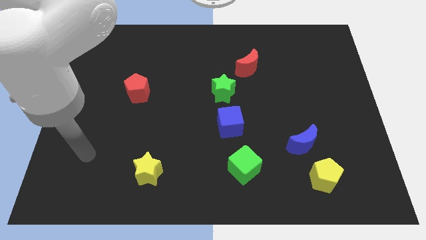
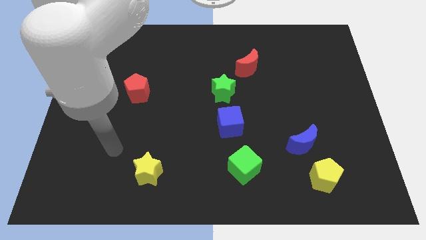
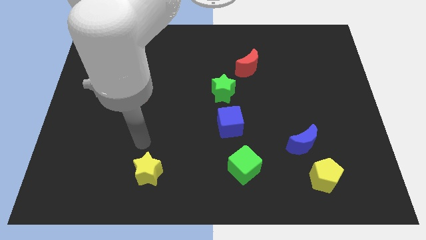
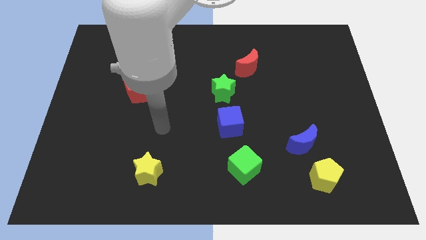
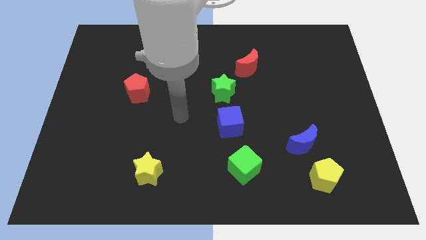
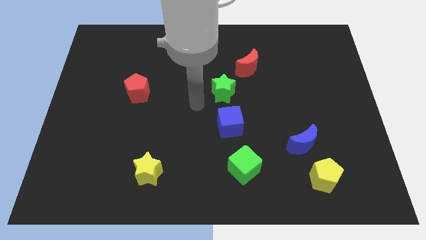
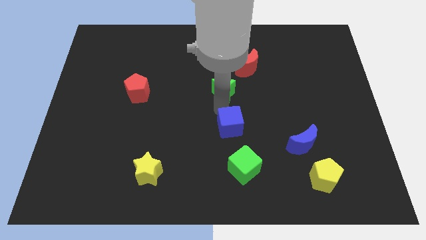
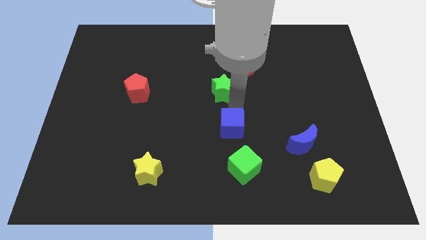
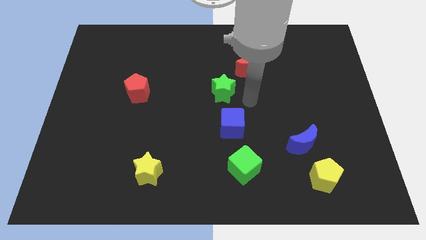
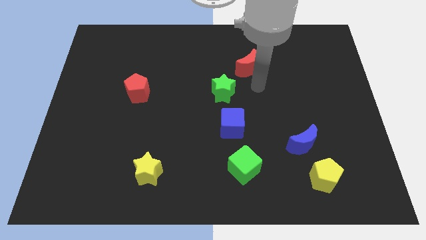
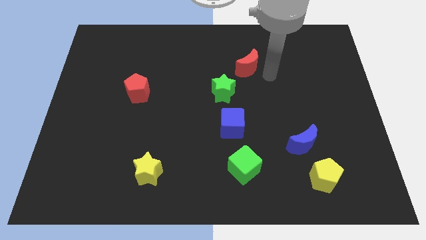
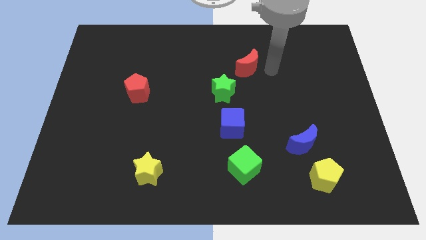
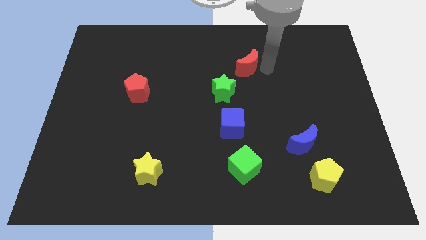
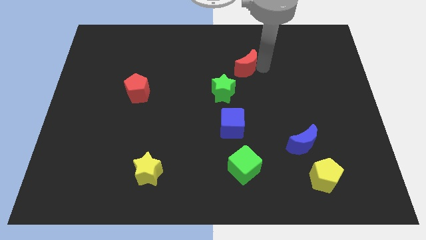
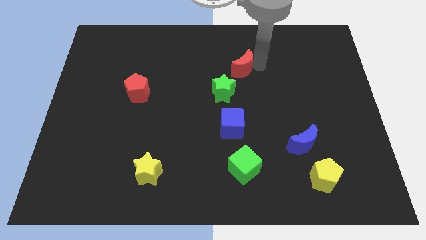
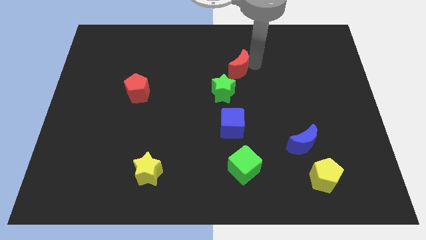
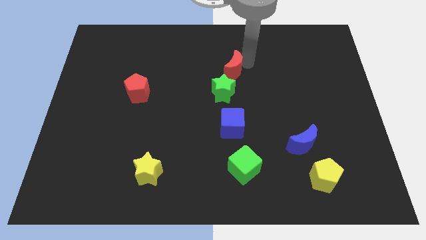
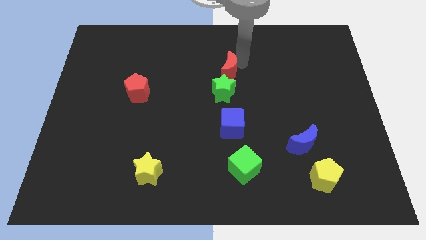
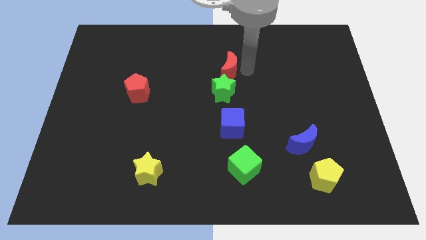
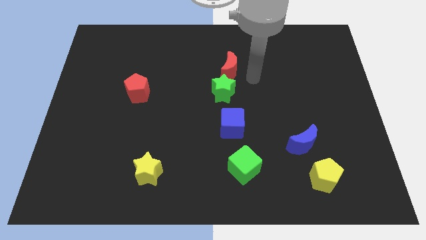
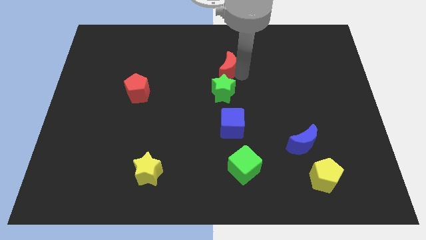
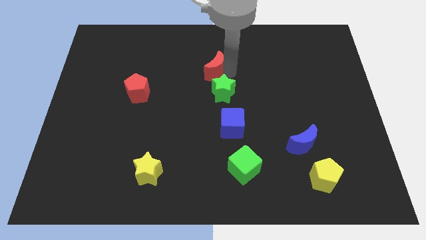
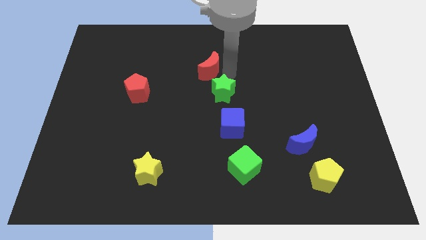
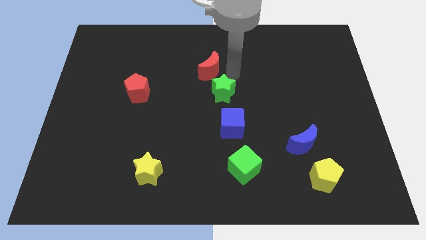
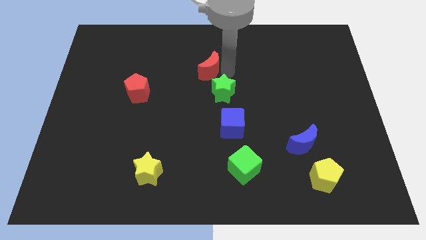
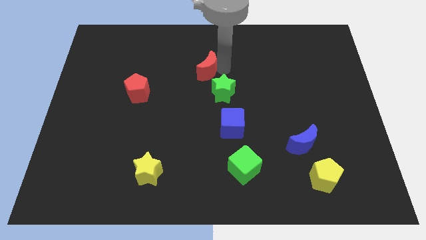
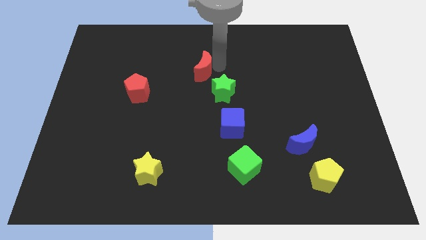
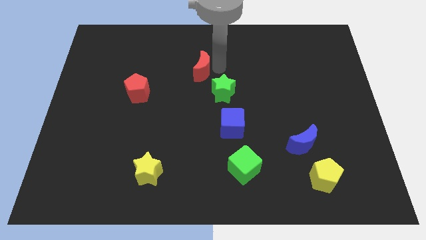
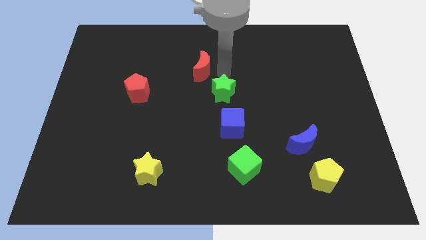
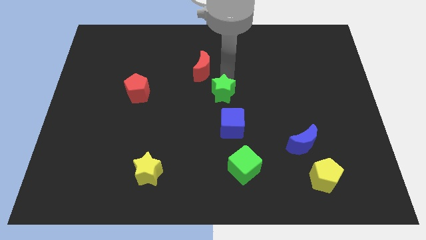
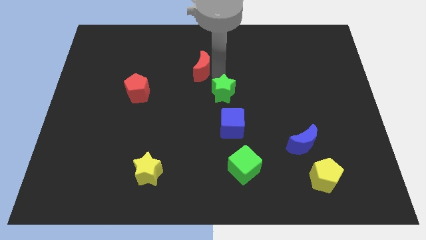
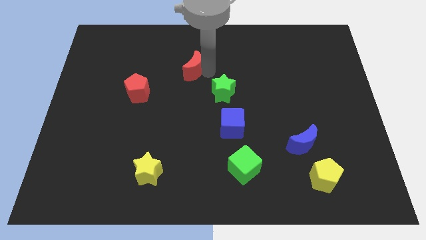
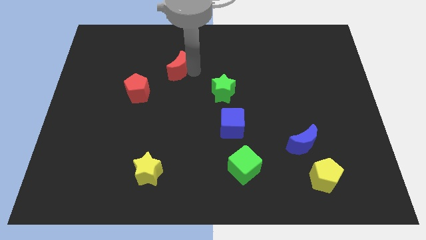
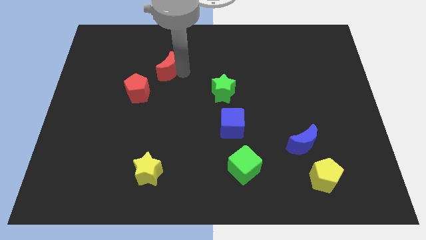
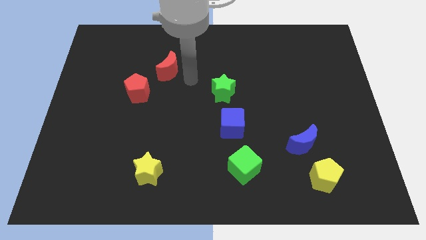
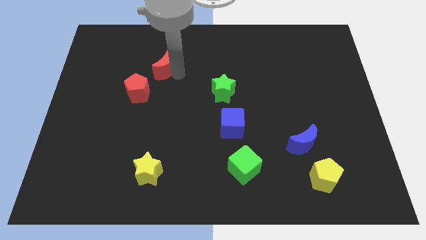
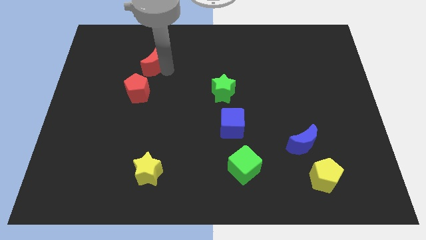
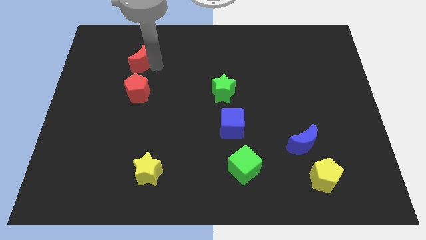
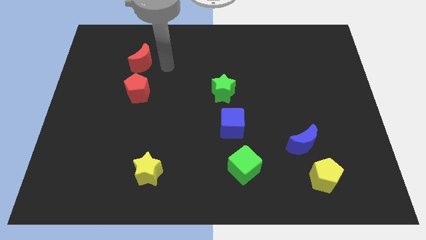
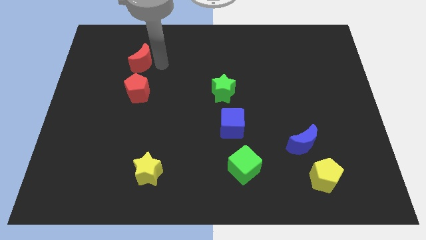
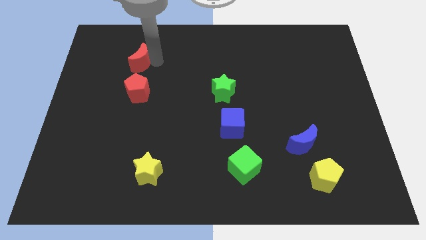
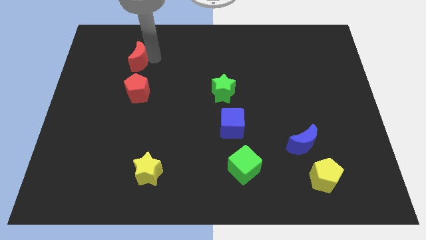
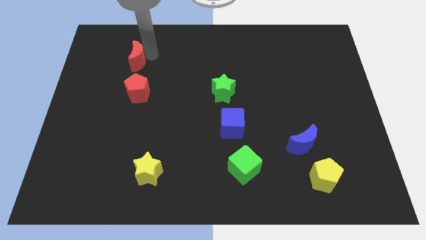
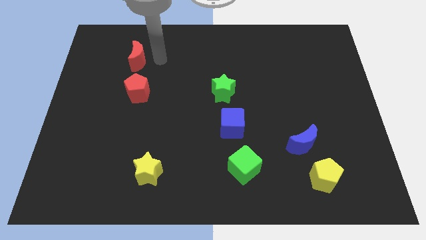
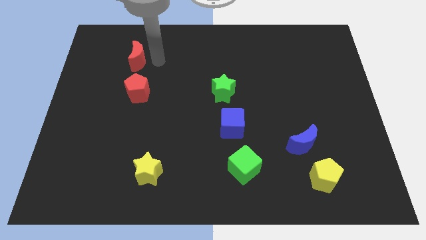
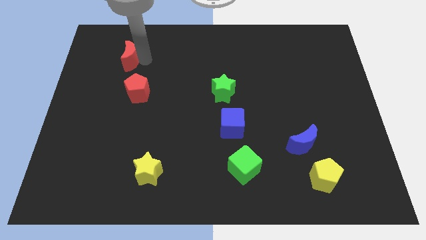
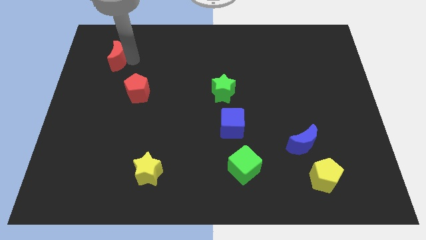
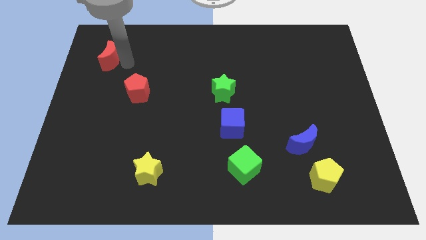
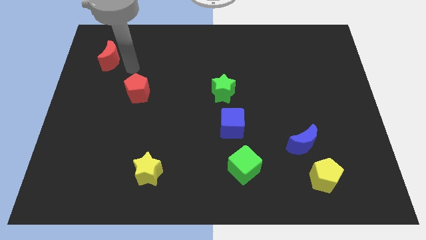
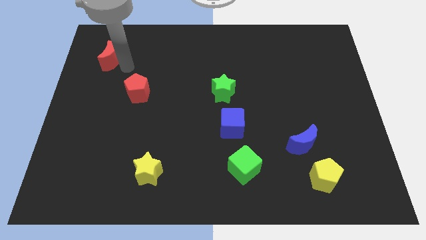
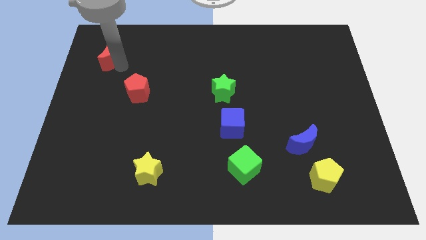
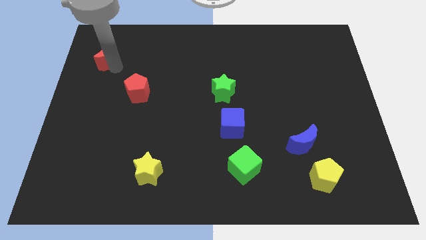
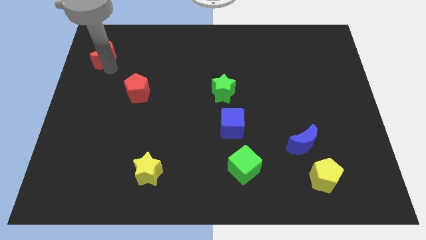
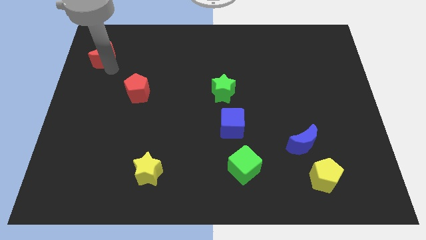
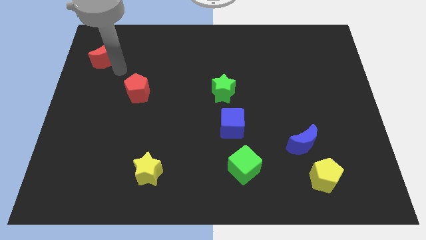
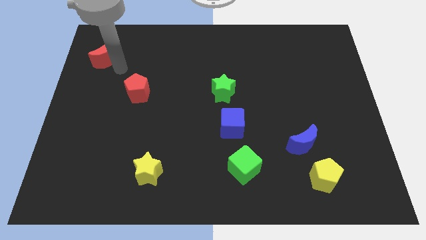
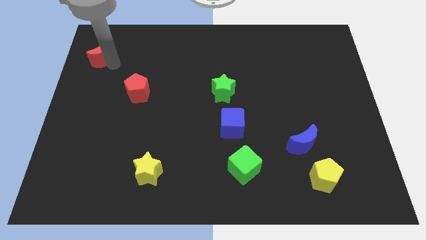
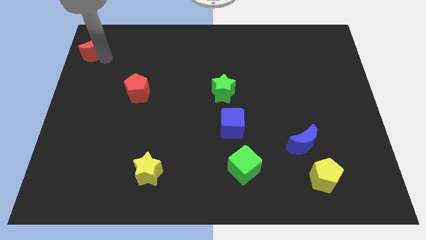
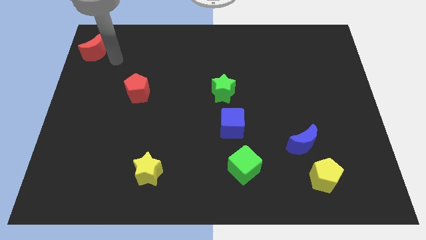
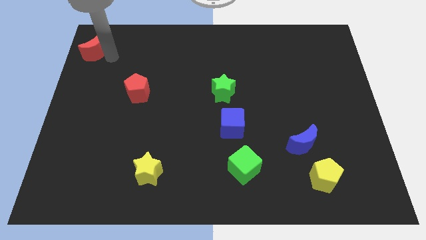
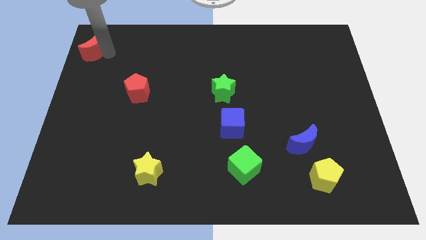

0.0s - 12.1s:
move the red moon to the top left corner

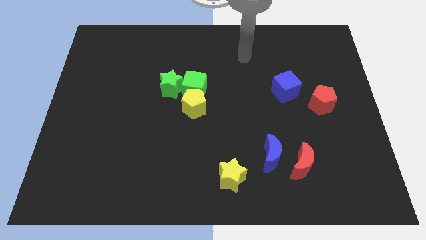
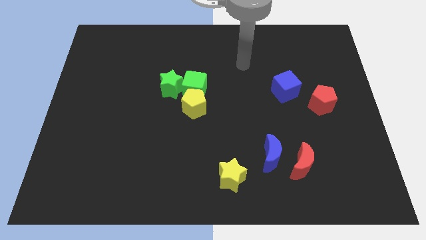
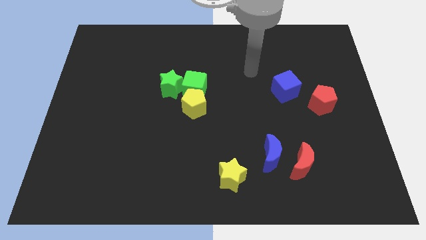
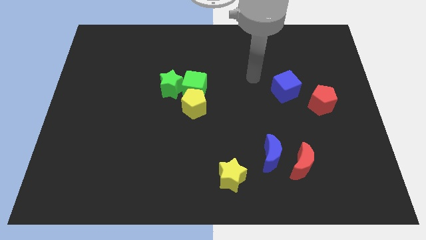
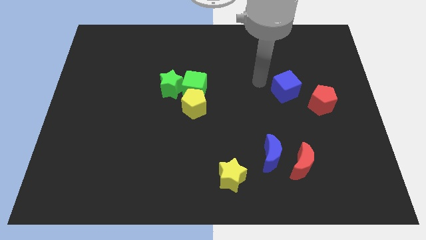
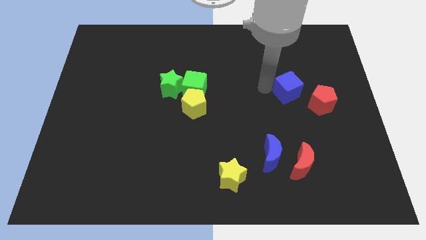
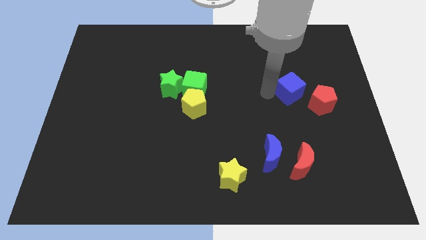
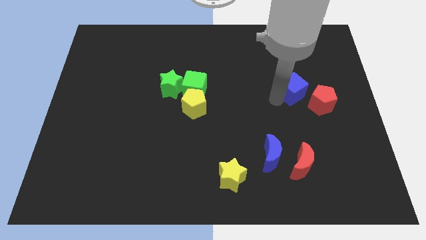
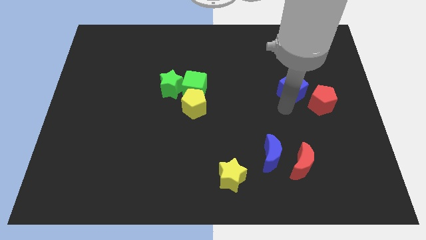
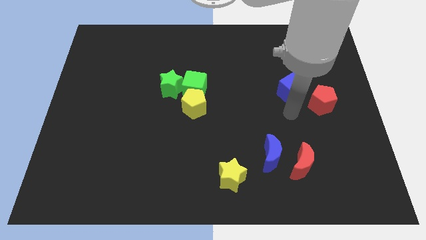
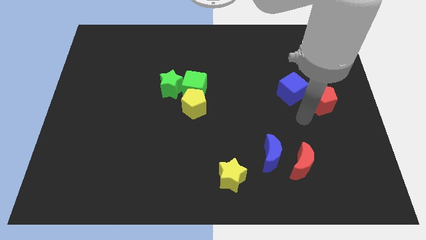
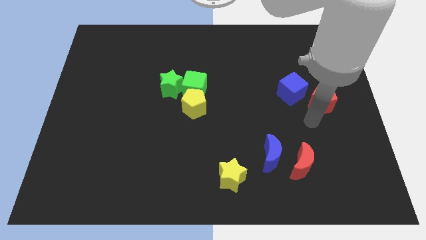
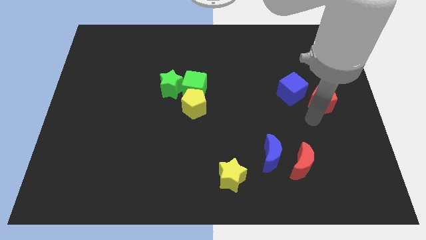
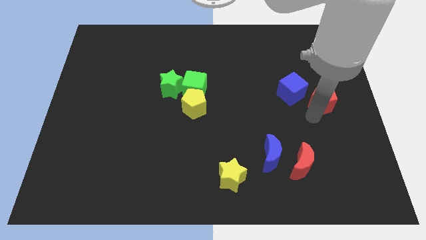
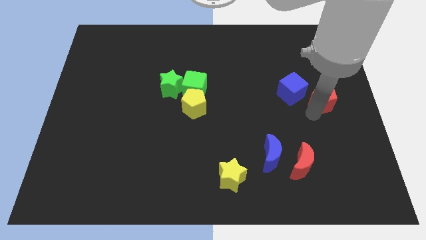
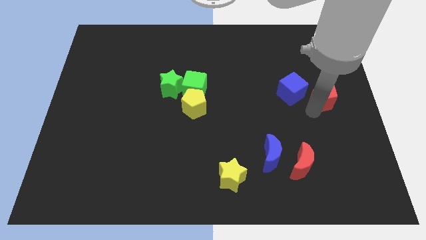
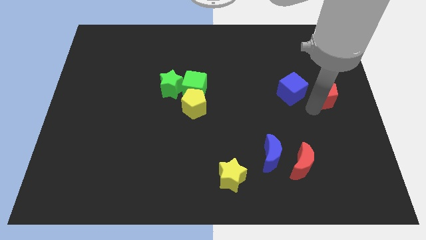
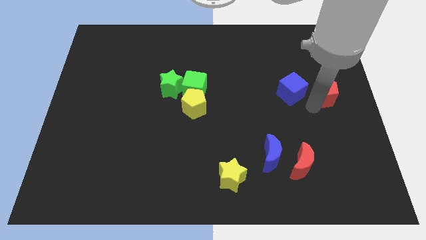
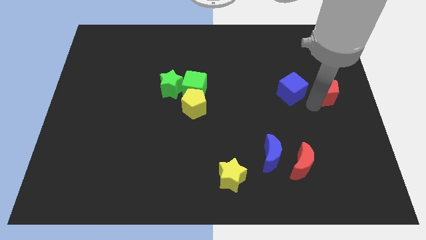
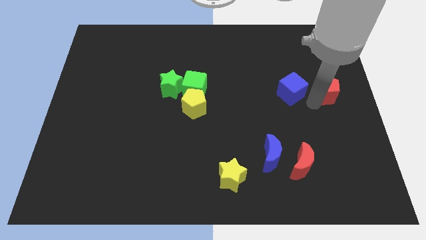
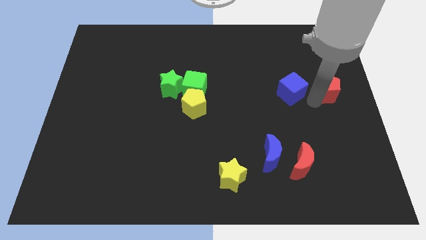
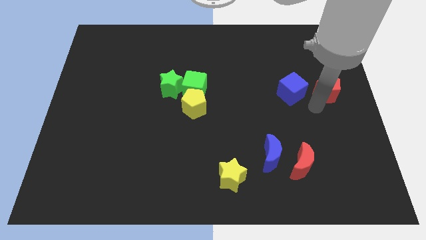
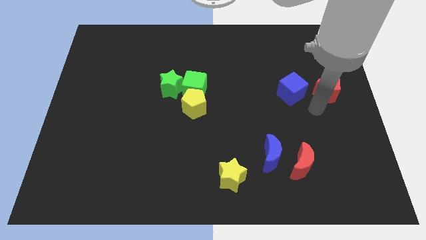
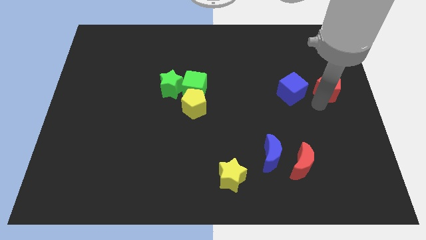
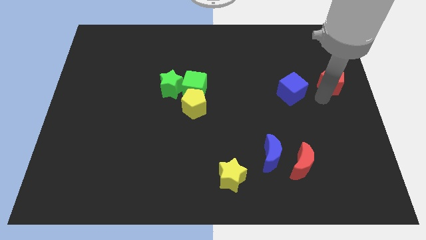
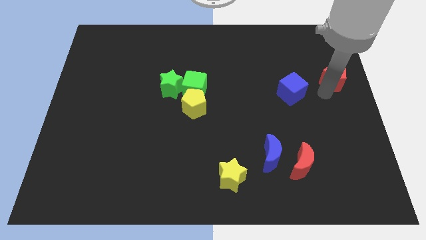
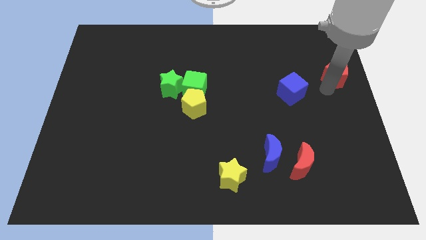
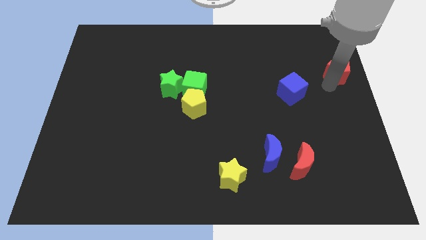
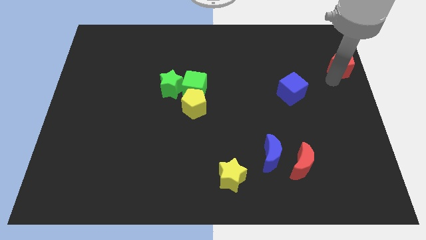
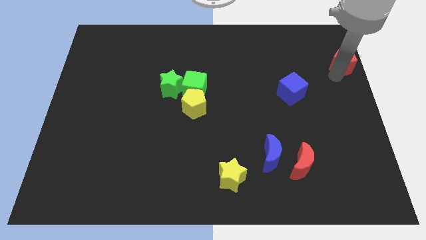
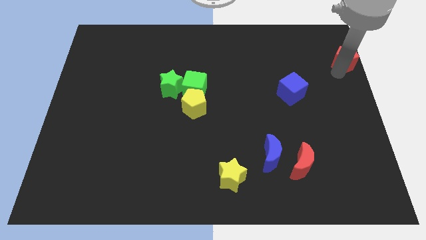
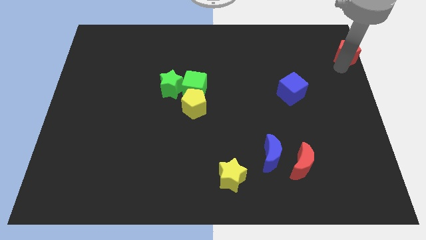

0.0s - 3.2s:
slide the red pentagon to the top right
